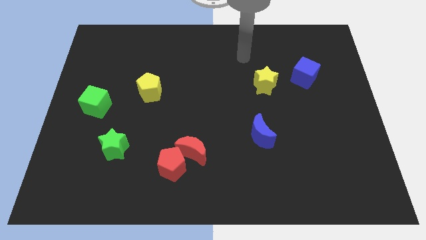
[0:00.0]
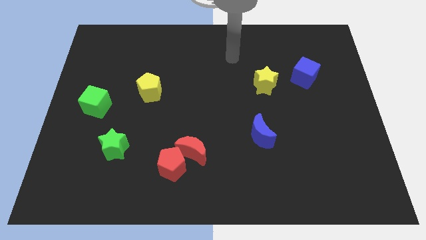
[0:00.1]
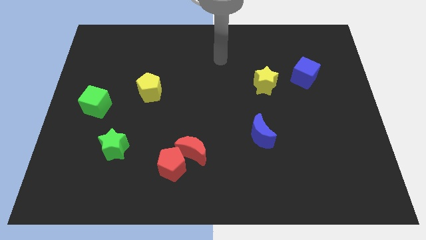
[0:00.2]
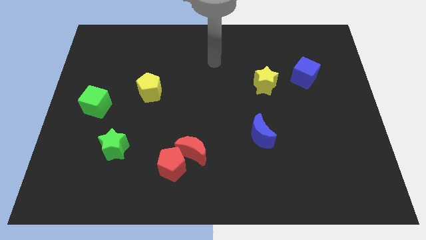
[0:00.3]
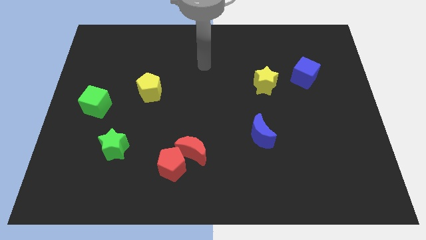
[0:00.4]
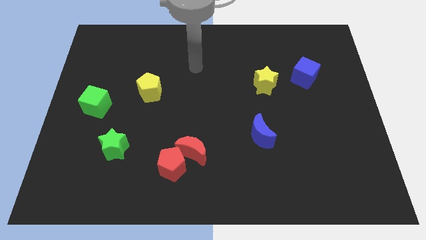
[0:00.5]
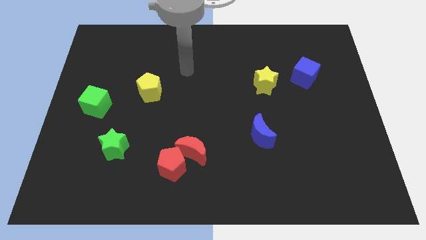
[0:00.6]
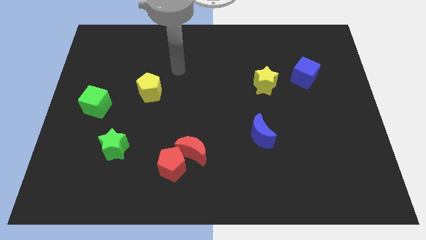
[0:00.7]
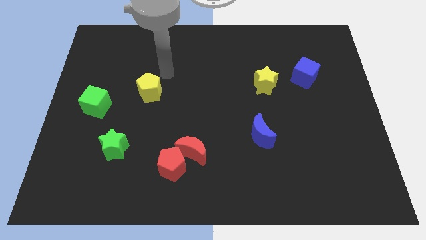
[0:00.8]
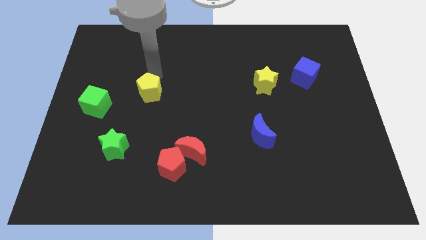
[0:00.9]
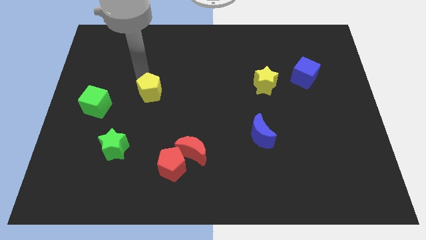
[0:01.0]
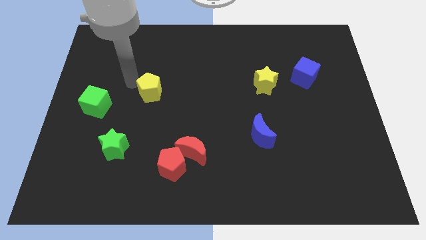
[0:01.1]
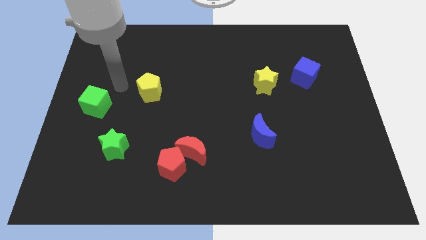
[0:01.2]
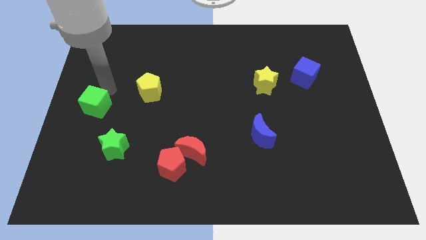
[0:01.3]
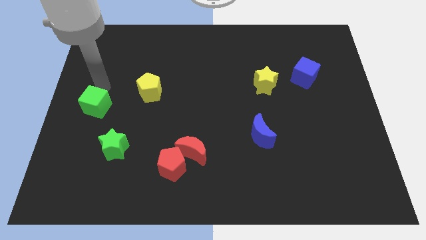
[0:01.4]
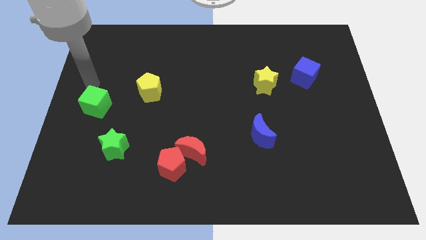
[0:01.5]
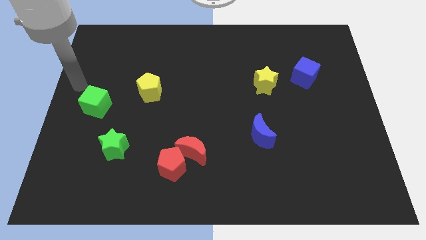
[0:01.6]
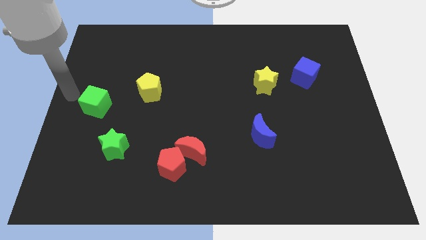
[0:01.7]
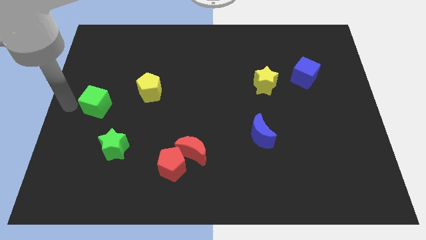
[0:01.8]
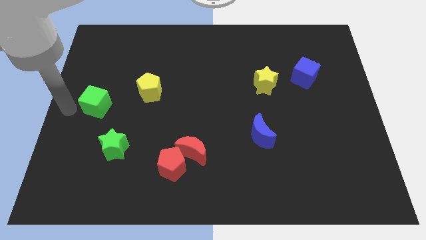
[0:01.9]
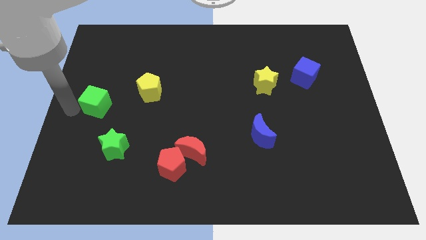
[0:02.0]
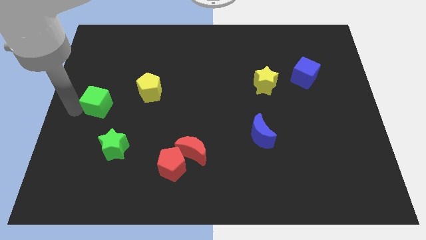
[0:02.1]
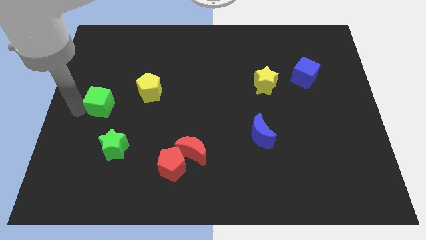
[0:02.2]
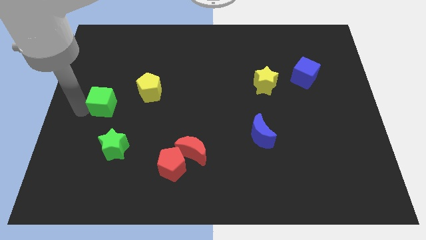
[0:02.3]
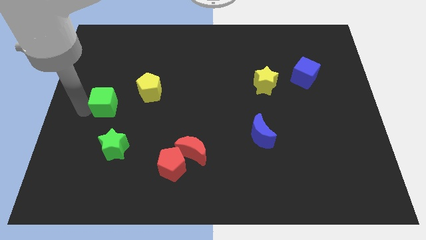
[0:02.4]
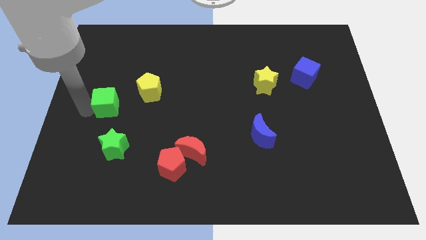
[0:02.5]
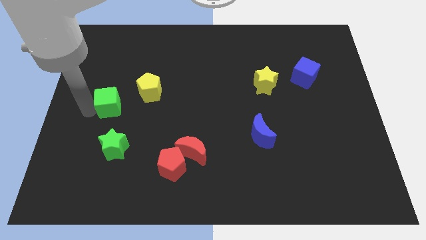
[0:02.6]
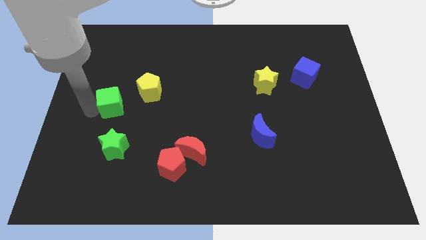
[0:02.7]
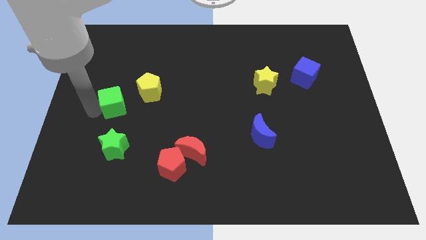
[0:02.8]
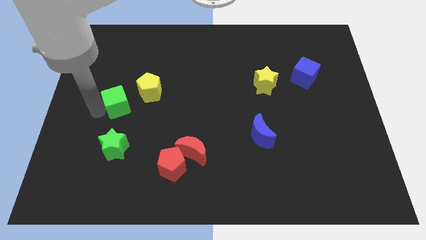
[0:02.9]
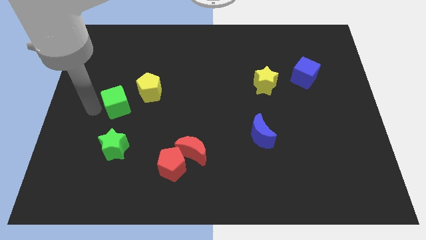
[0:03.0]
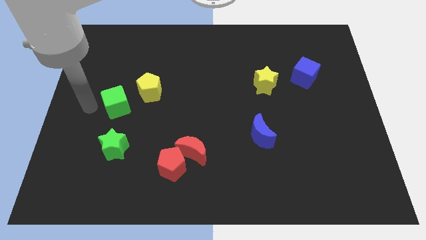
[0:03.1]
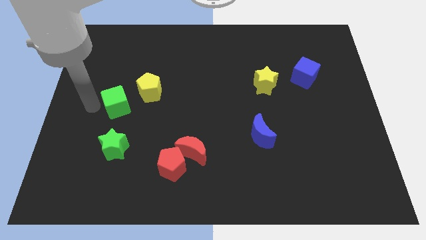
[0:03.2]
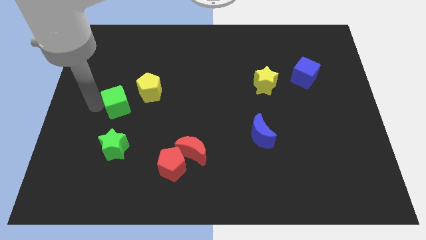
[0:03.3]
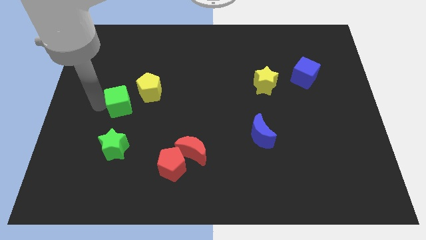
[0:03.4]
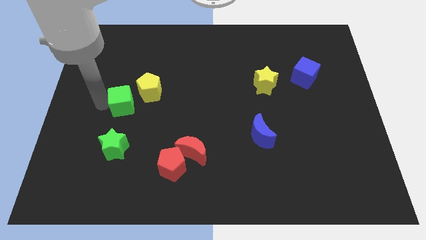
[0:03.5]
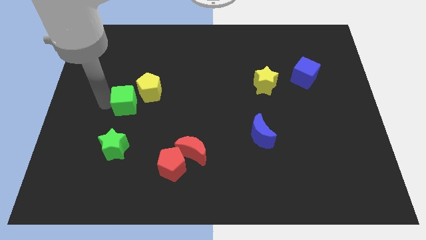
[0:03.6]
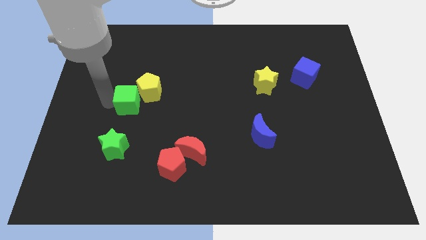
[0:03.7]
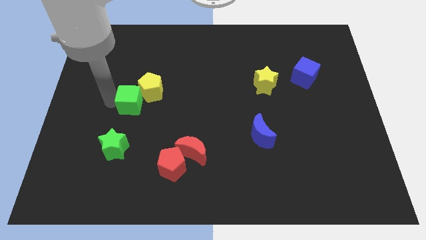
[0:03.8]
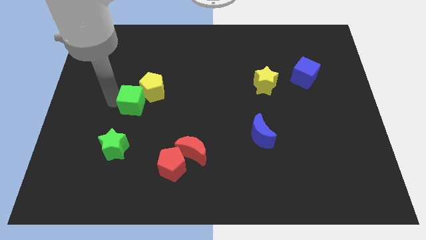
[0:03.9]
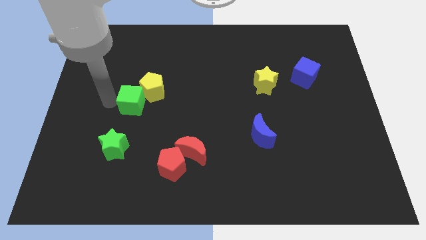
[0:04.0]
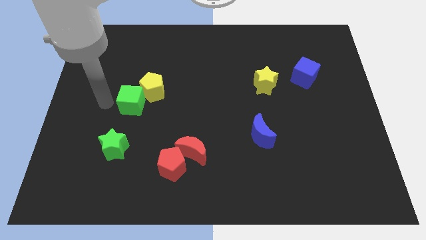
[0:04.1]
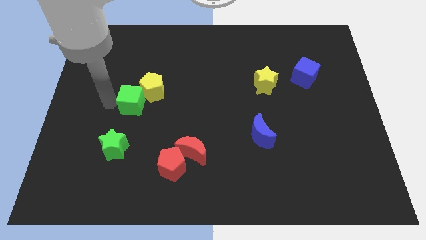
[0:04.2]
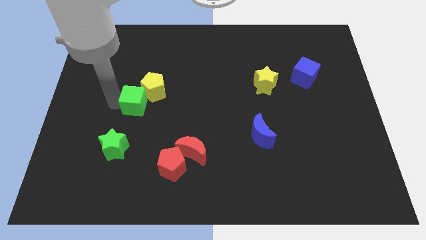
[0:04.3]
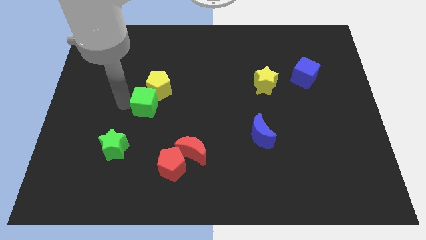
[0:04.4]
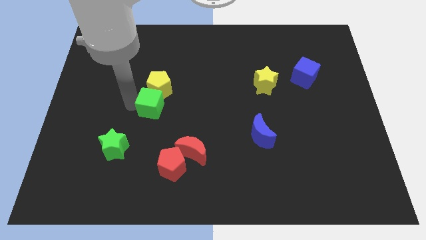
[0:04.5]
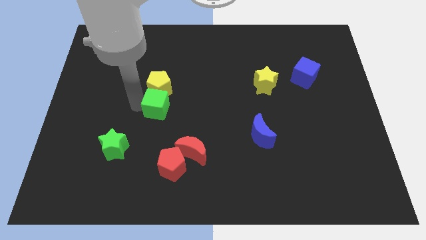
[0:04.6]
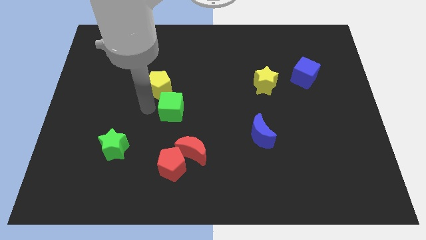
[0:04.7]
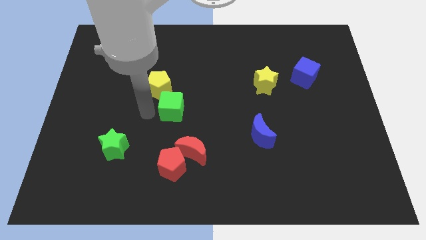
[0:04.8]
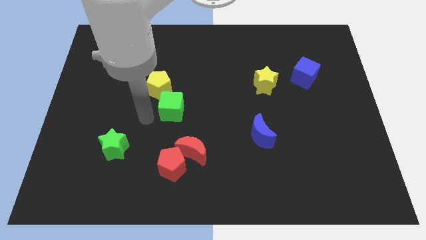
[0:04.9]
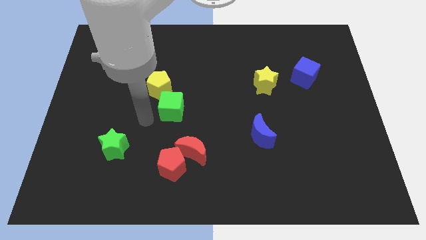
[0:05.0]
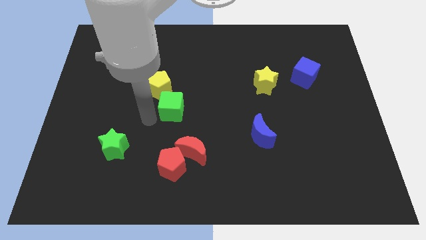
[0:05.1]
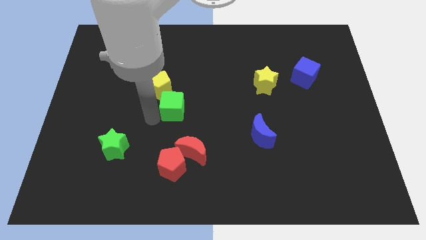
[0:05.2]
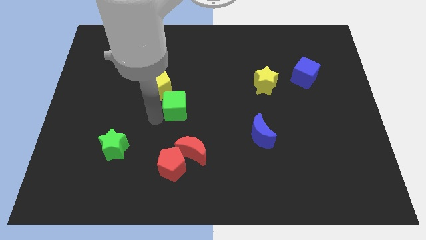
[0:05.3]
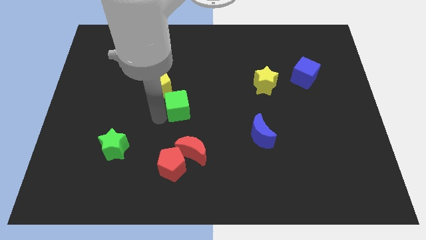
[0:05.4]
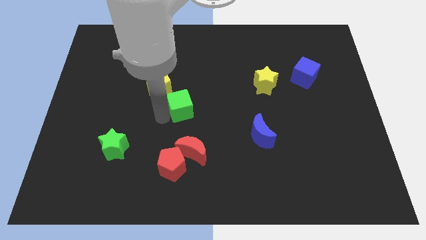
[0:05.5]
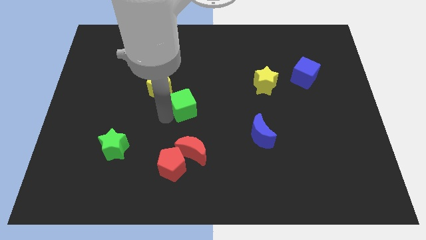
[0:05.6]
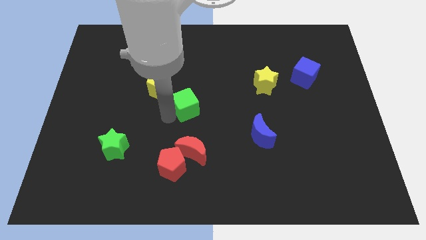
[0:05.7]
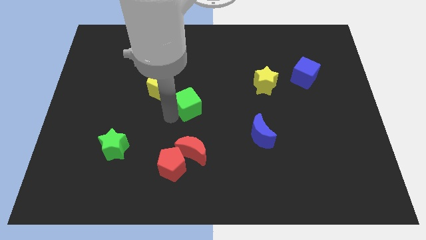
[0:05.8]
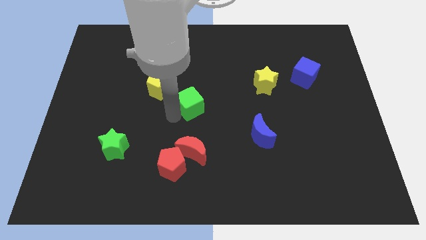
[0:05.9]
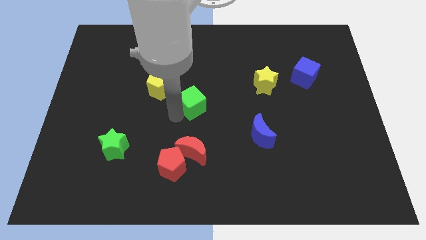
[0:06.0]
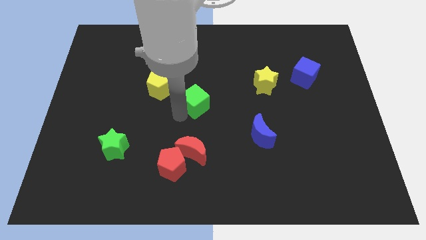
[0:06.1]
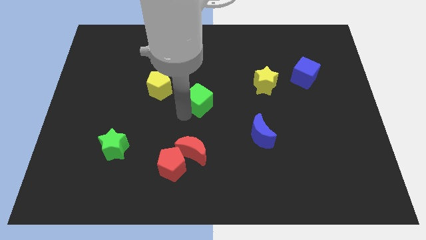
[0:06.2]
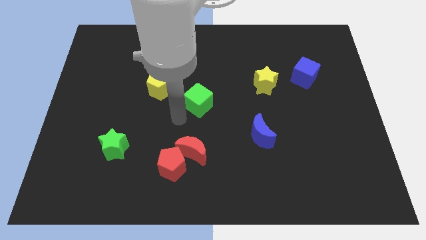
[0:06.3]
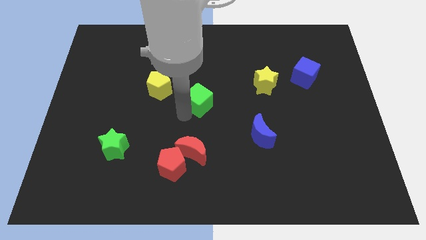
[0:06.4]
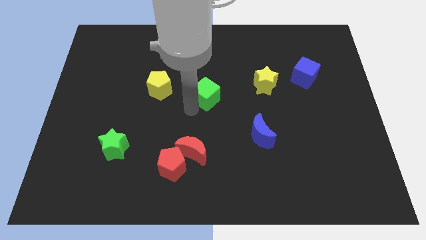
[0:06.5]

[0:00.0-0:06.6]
slide the green cube left of the yellow star

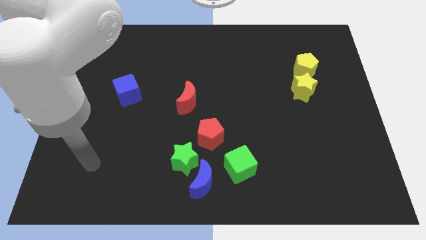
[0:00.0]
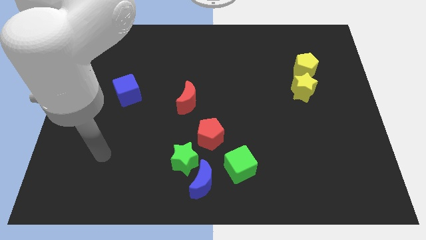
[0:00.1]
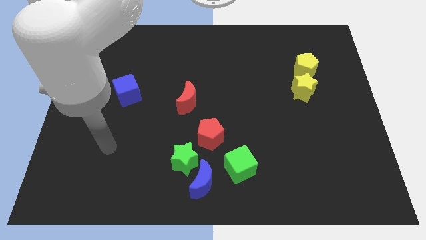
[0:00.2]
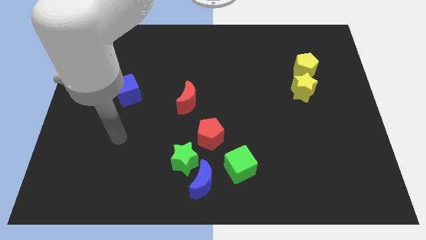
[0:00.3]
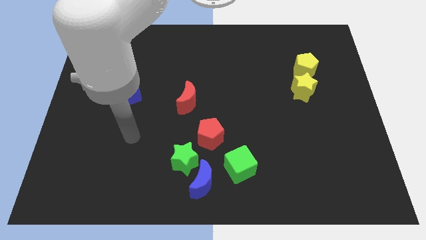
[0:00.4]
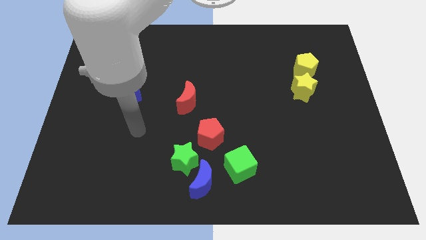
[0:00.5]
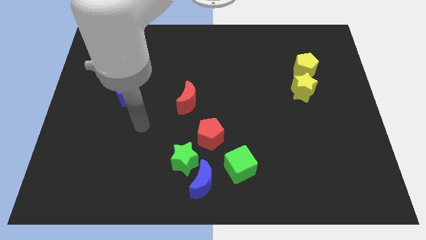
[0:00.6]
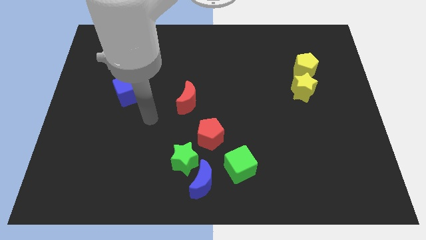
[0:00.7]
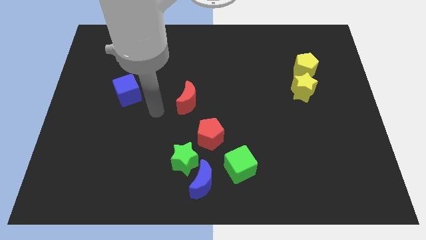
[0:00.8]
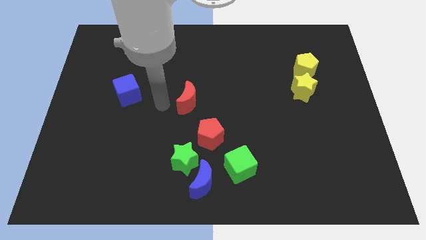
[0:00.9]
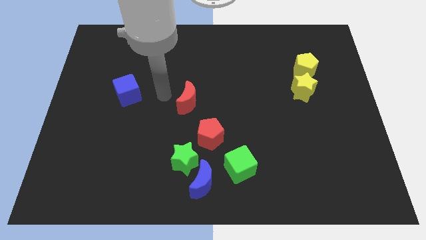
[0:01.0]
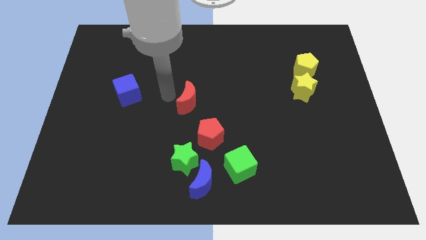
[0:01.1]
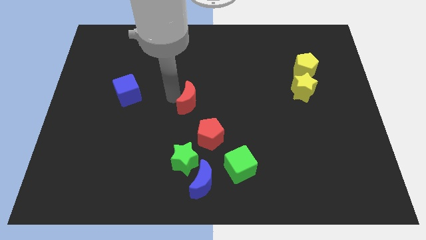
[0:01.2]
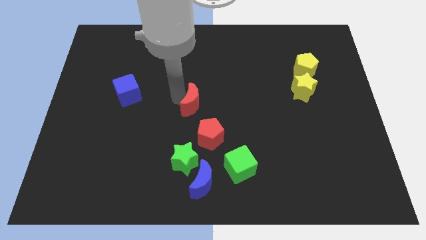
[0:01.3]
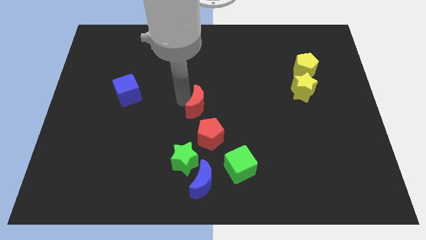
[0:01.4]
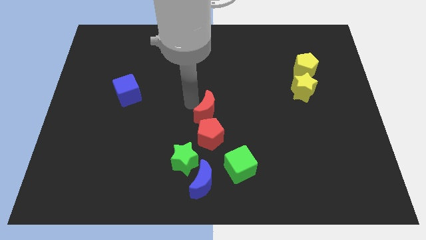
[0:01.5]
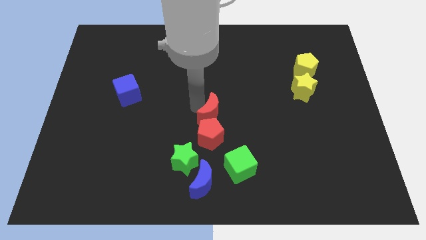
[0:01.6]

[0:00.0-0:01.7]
slide the red moon to the top right of the red pentagon
